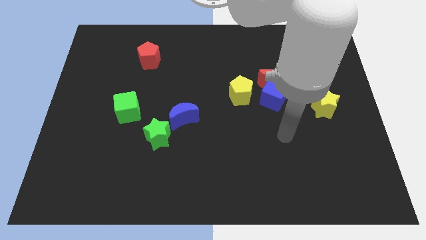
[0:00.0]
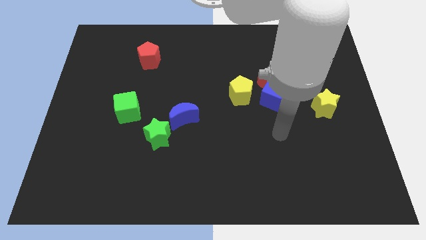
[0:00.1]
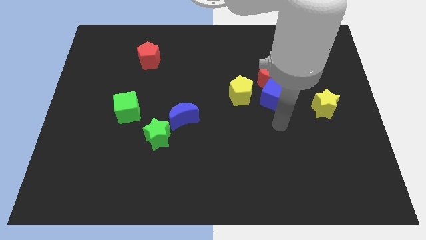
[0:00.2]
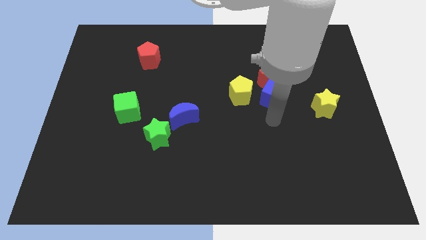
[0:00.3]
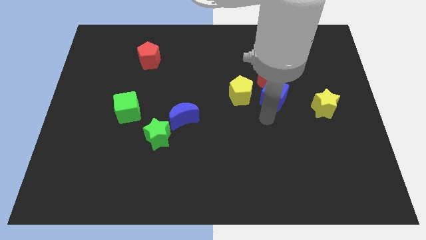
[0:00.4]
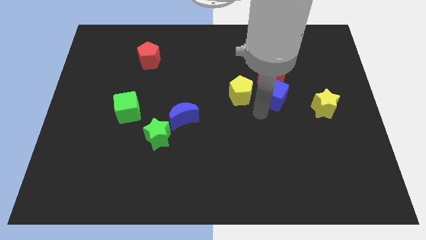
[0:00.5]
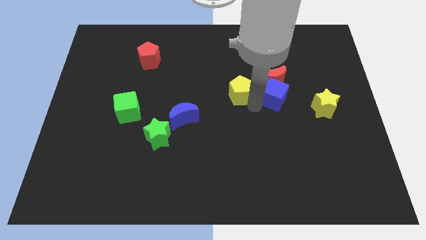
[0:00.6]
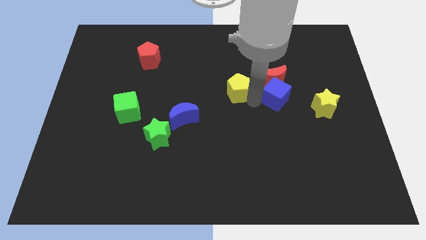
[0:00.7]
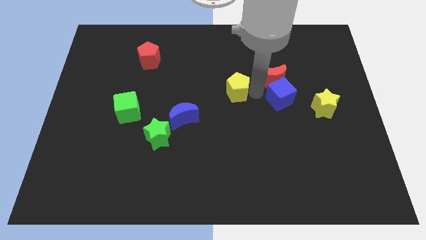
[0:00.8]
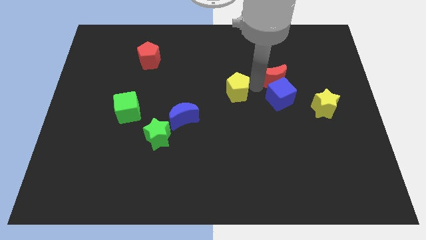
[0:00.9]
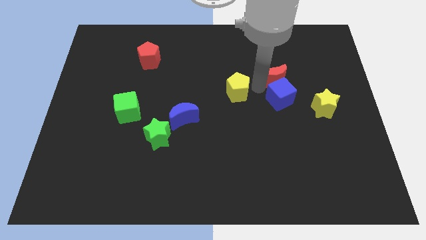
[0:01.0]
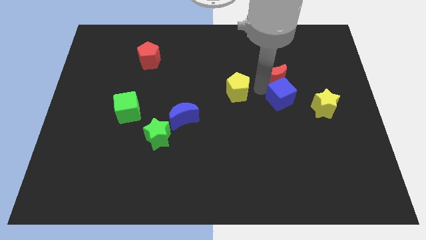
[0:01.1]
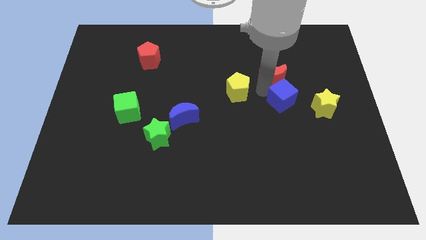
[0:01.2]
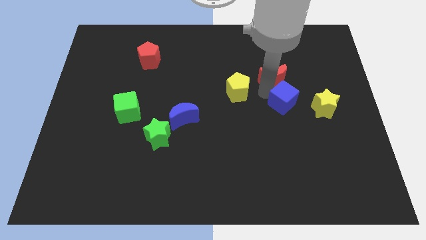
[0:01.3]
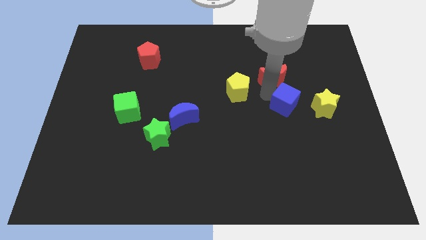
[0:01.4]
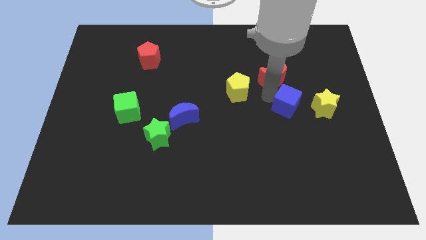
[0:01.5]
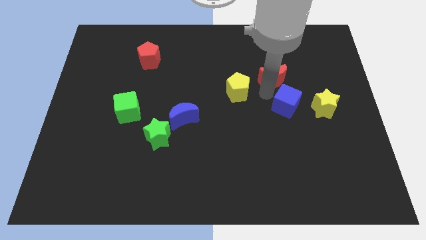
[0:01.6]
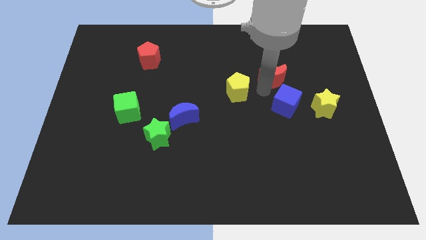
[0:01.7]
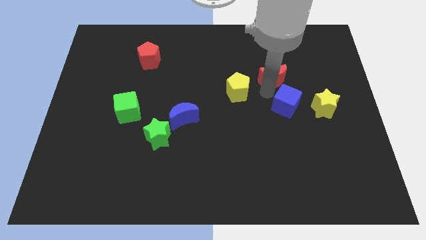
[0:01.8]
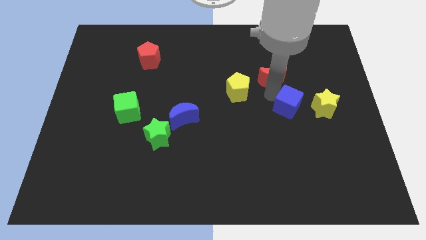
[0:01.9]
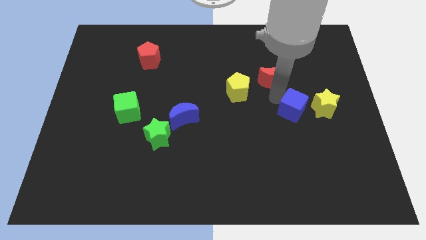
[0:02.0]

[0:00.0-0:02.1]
separate the blue cube from the red moon and yellow pentagon

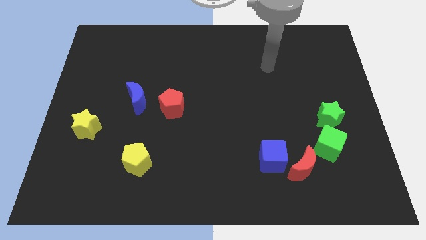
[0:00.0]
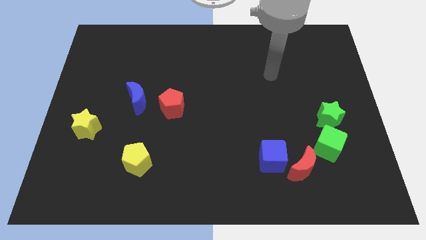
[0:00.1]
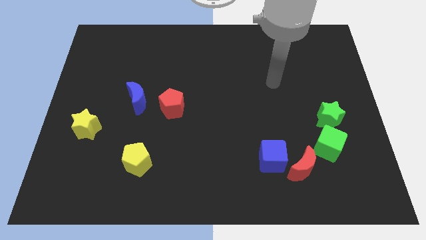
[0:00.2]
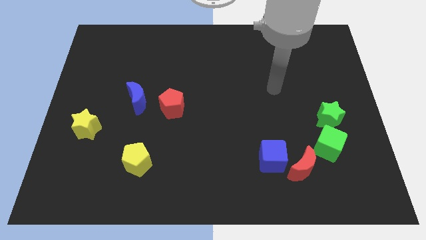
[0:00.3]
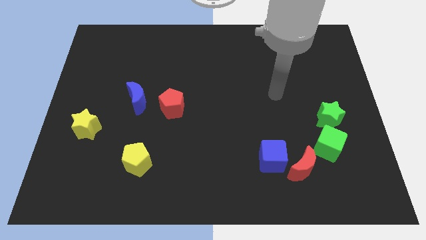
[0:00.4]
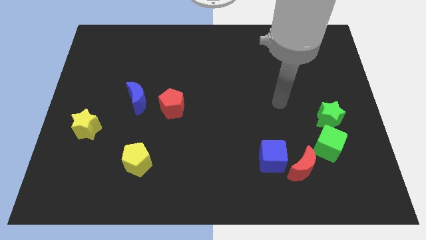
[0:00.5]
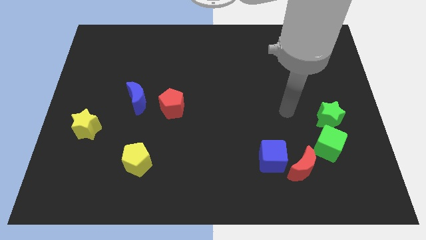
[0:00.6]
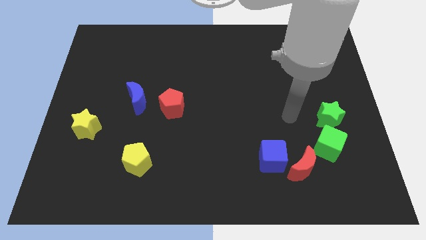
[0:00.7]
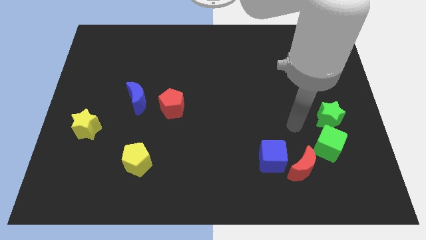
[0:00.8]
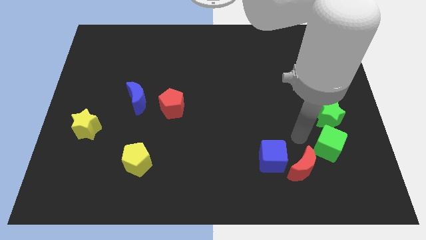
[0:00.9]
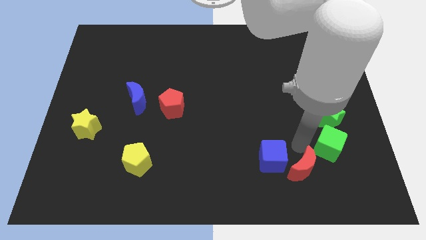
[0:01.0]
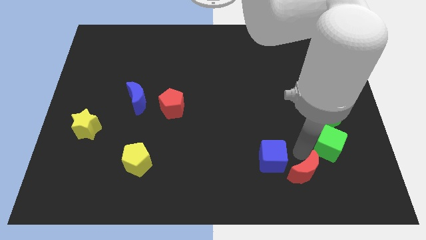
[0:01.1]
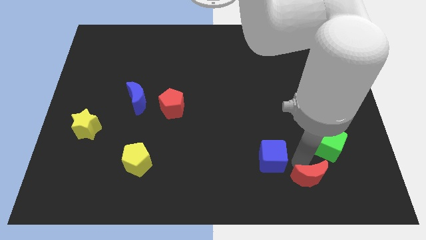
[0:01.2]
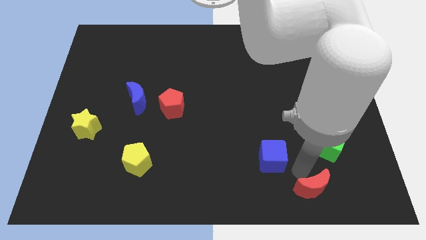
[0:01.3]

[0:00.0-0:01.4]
separate the blue cube from the red moon

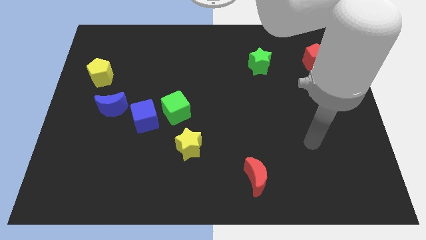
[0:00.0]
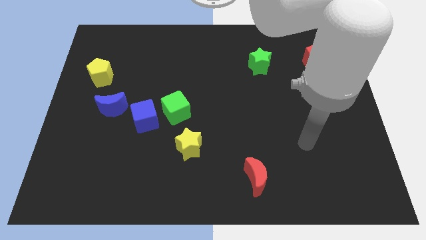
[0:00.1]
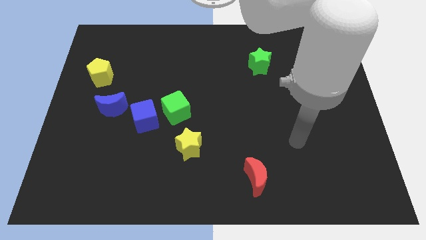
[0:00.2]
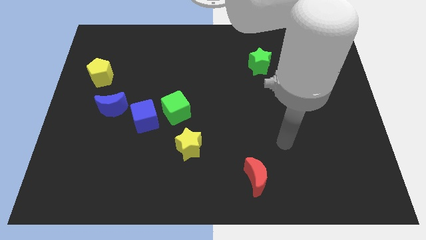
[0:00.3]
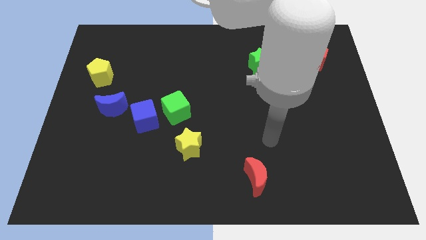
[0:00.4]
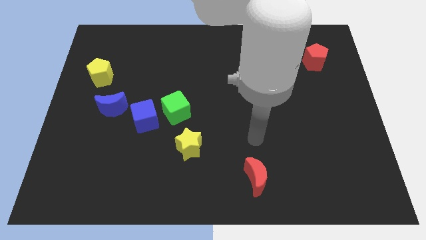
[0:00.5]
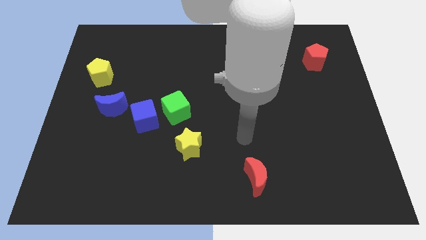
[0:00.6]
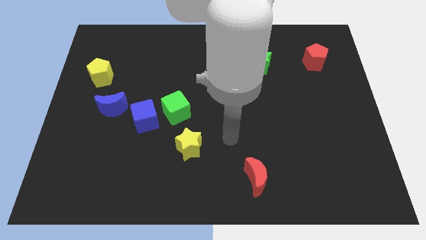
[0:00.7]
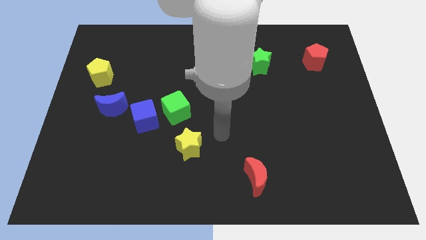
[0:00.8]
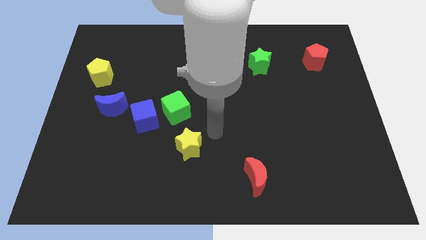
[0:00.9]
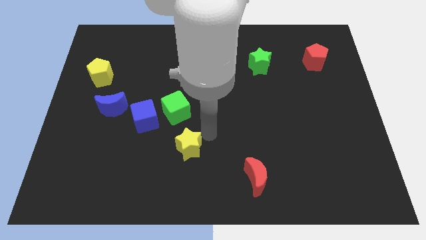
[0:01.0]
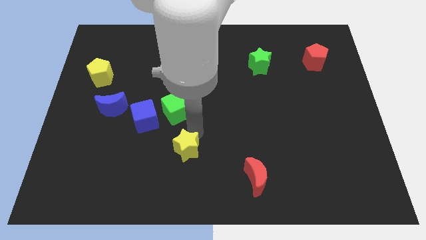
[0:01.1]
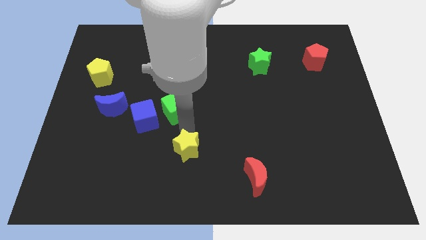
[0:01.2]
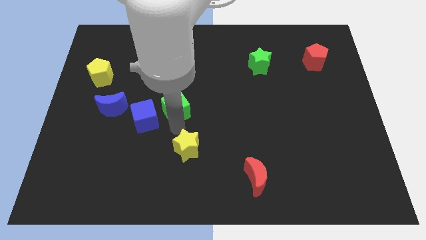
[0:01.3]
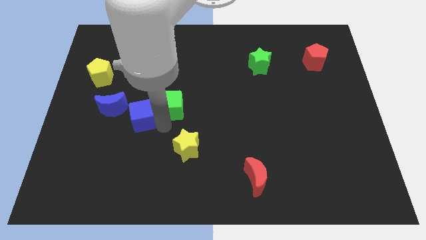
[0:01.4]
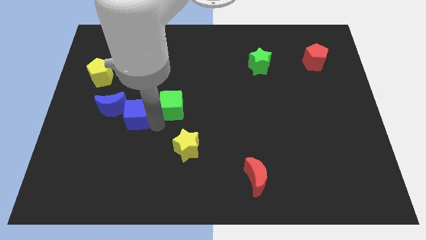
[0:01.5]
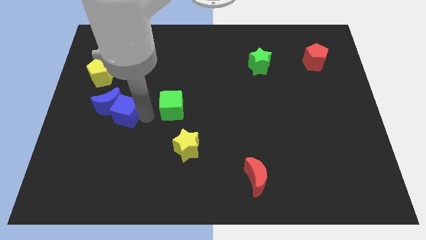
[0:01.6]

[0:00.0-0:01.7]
separate the green cube from the blue cube

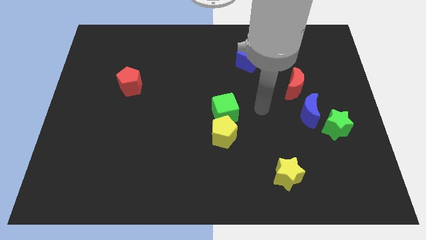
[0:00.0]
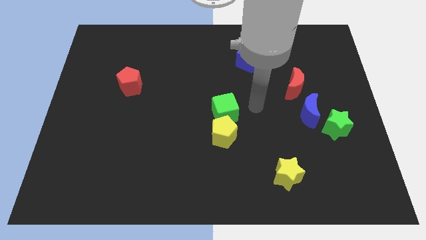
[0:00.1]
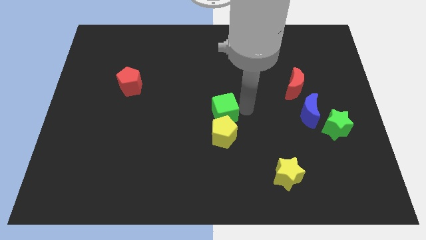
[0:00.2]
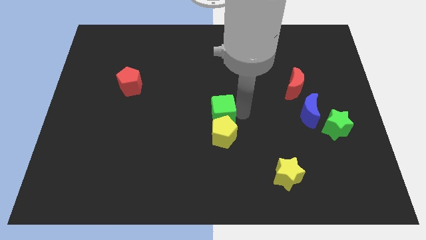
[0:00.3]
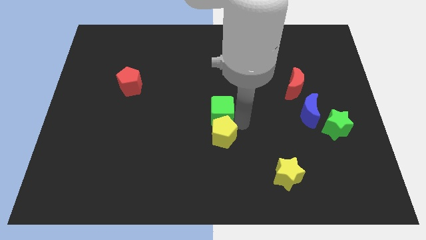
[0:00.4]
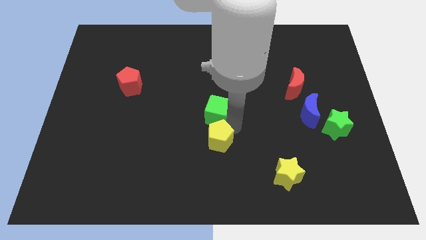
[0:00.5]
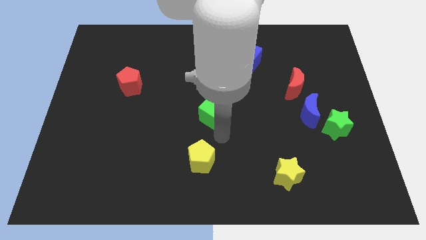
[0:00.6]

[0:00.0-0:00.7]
move the green cube away from the yellow pentagon

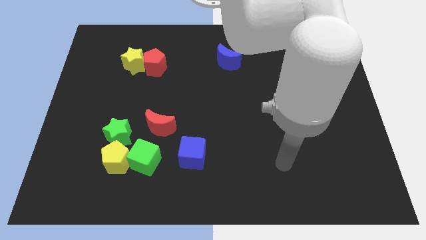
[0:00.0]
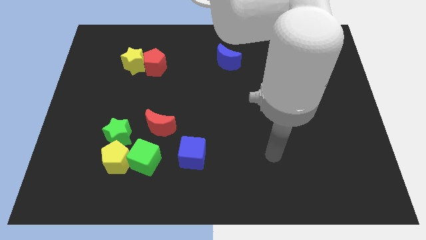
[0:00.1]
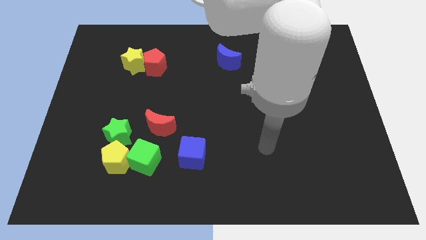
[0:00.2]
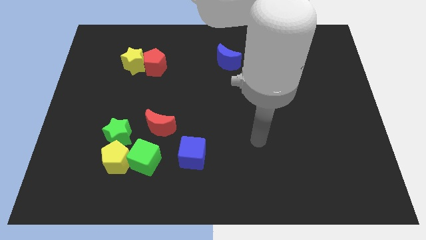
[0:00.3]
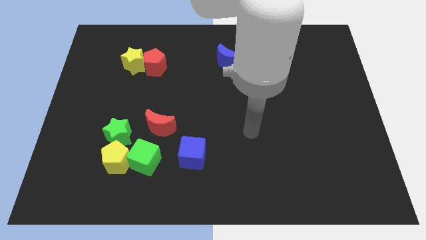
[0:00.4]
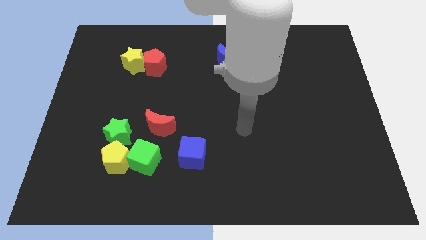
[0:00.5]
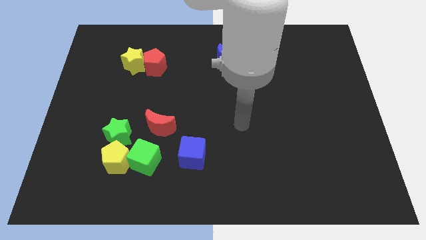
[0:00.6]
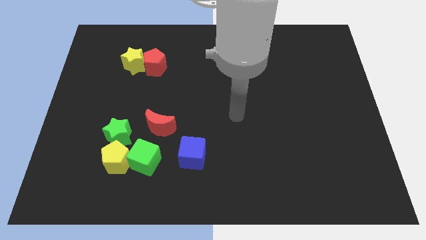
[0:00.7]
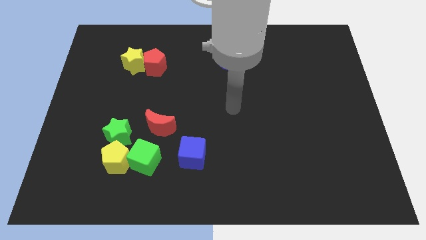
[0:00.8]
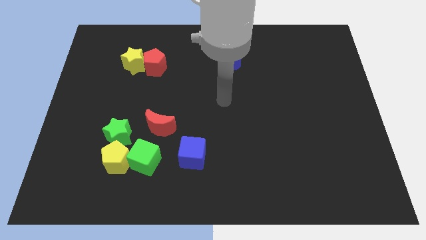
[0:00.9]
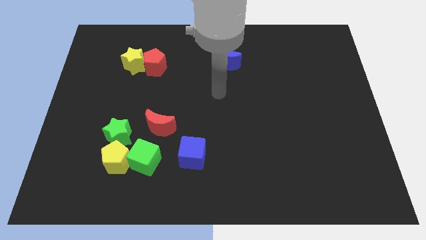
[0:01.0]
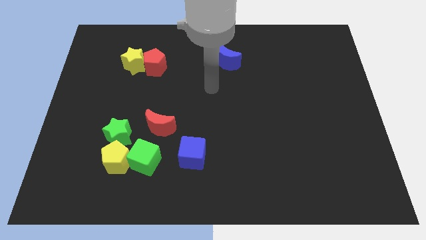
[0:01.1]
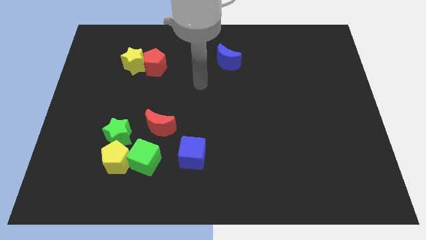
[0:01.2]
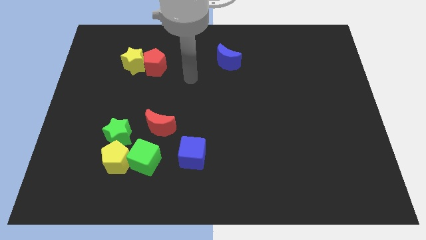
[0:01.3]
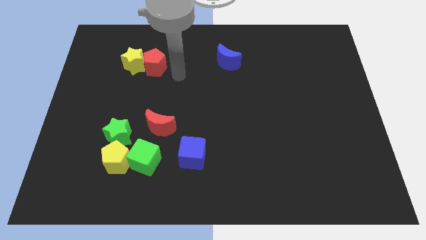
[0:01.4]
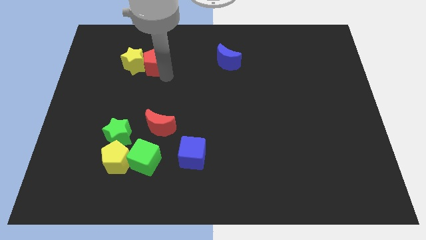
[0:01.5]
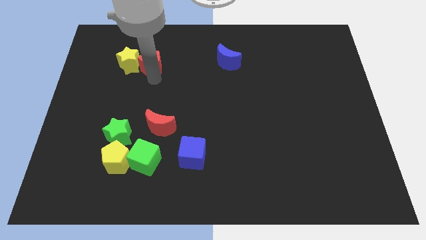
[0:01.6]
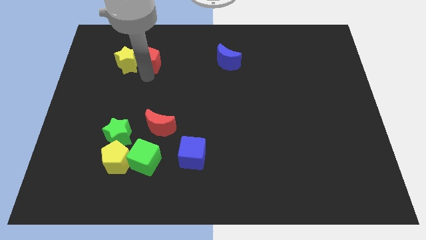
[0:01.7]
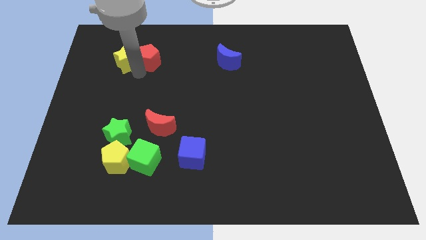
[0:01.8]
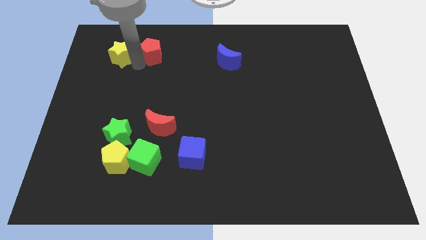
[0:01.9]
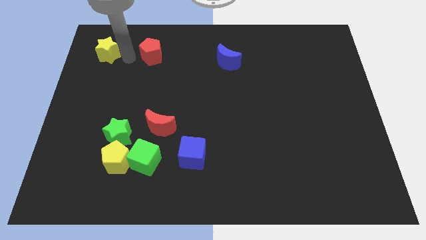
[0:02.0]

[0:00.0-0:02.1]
move the red pentagon away from the yellow star

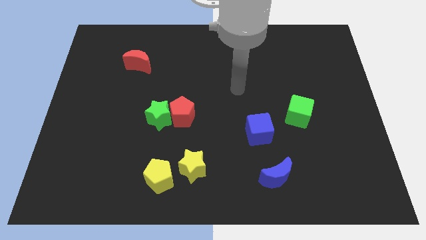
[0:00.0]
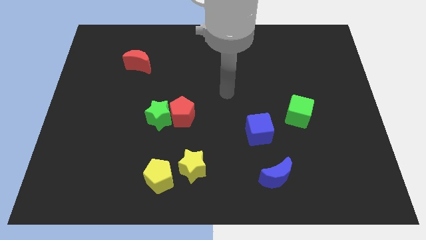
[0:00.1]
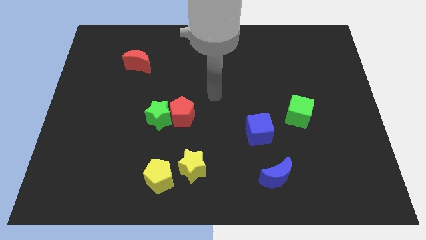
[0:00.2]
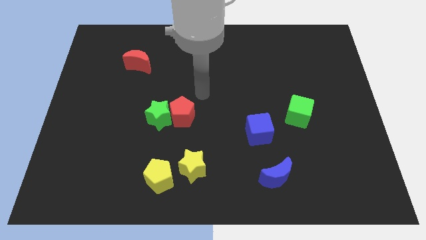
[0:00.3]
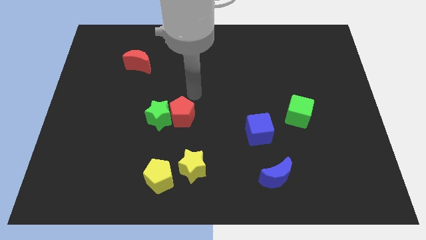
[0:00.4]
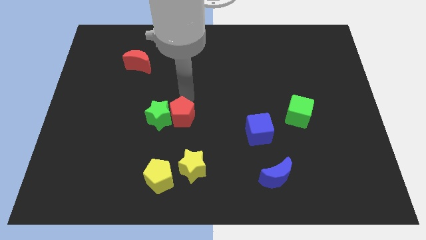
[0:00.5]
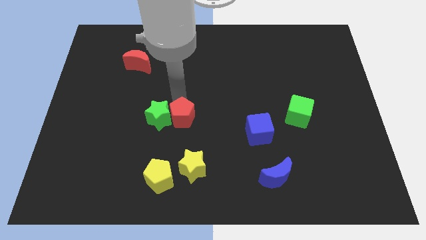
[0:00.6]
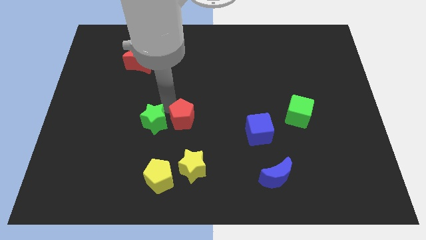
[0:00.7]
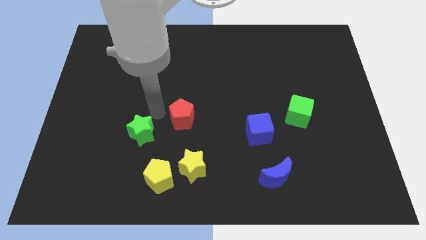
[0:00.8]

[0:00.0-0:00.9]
move the red pentagon away from the green star

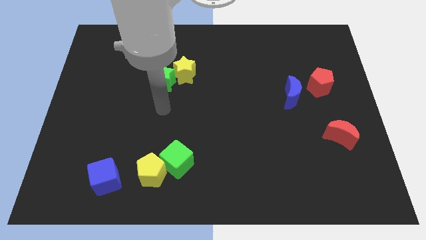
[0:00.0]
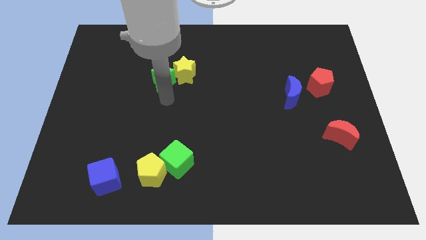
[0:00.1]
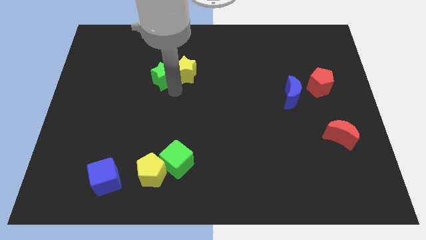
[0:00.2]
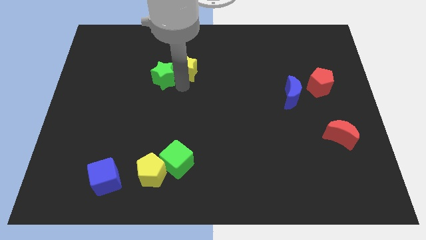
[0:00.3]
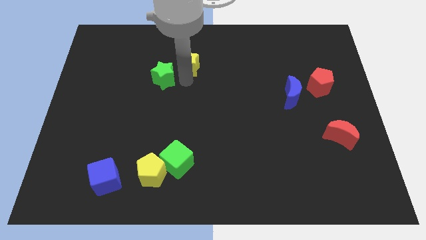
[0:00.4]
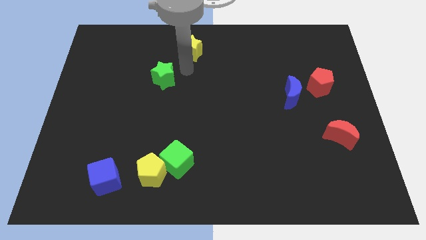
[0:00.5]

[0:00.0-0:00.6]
pull the green star apart from the yellow star

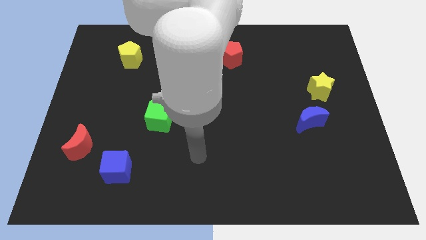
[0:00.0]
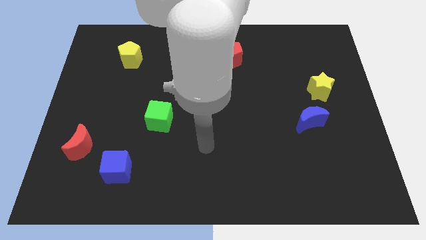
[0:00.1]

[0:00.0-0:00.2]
pull the blue moon apart from the yellow star
